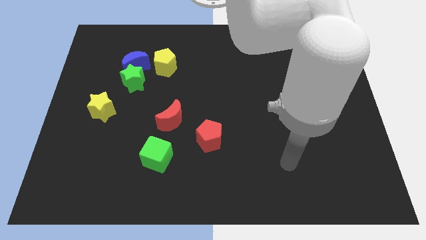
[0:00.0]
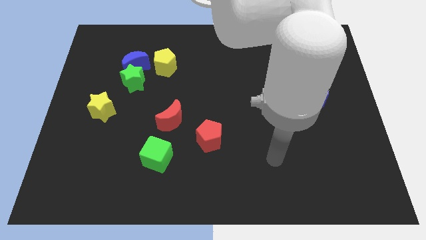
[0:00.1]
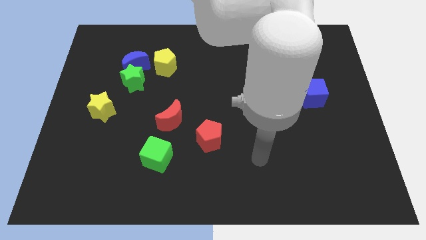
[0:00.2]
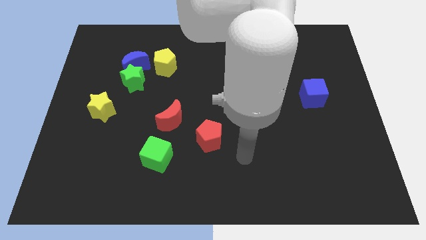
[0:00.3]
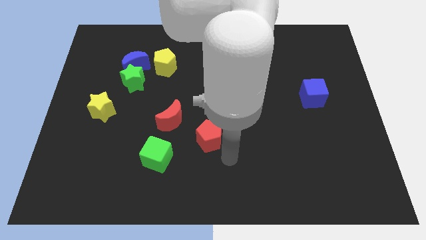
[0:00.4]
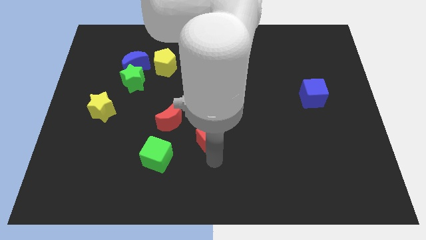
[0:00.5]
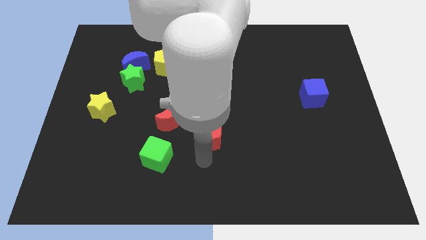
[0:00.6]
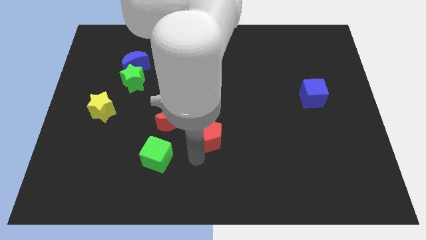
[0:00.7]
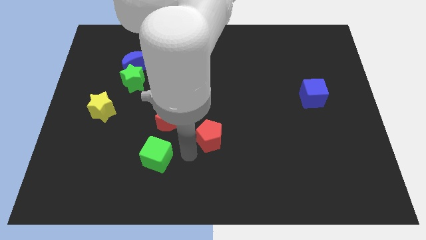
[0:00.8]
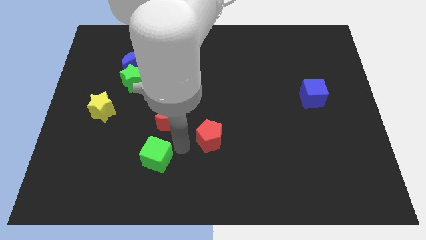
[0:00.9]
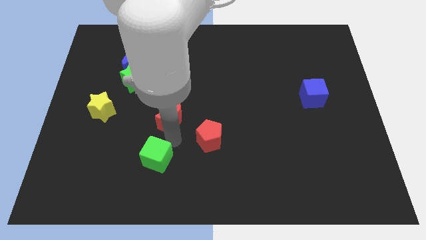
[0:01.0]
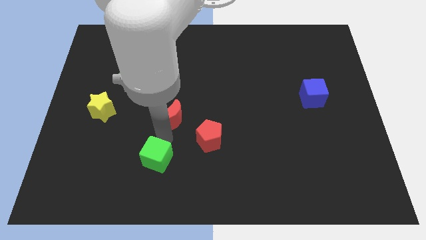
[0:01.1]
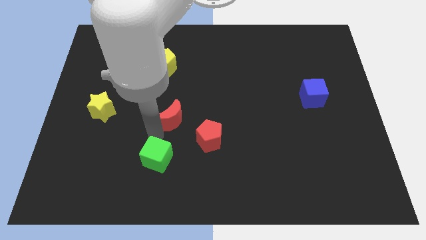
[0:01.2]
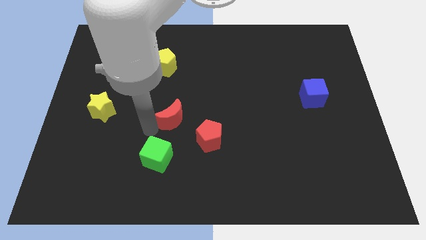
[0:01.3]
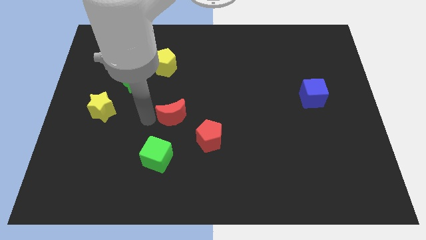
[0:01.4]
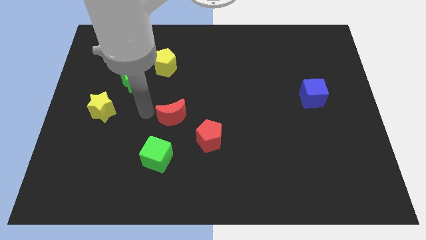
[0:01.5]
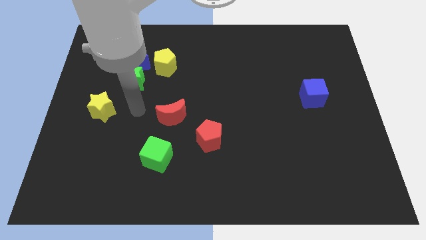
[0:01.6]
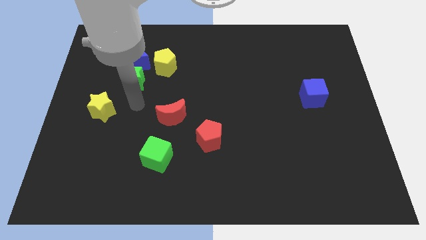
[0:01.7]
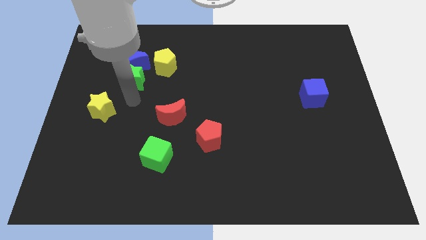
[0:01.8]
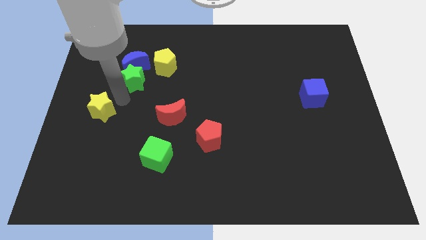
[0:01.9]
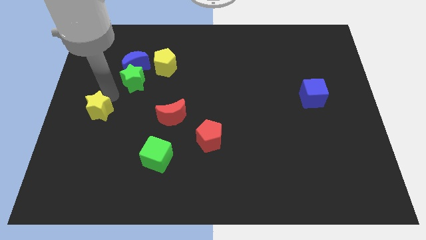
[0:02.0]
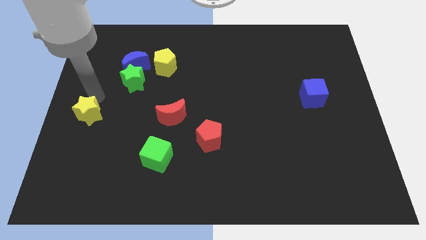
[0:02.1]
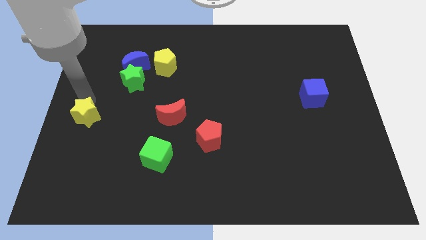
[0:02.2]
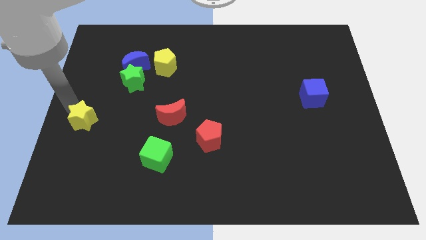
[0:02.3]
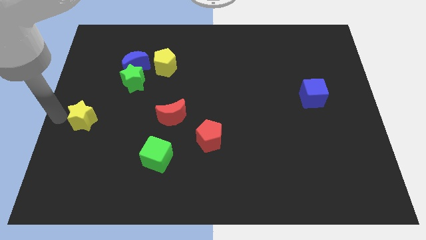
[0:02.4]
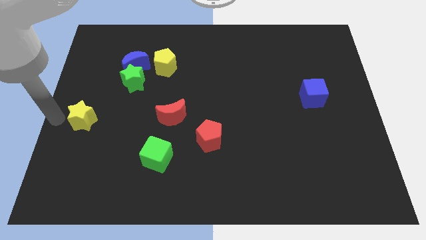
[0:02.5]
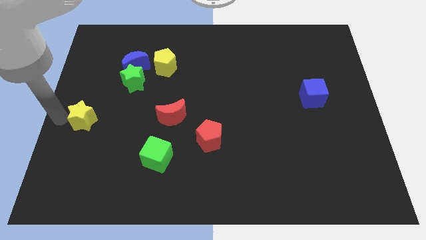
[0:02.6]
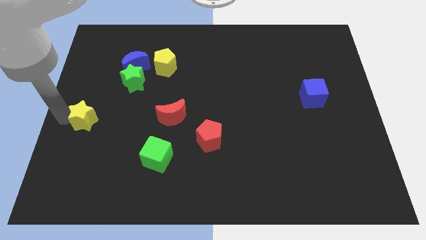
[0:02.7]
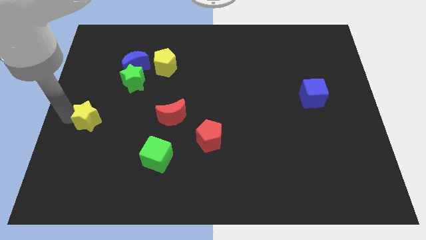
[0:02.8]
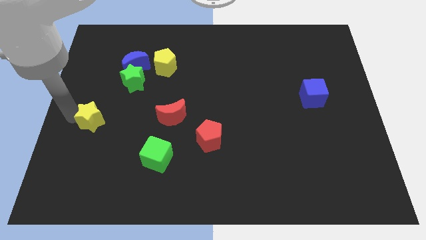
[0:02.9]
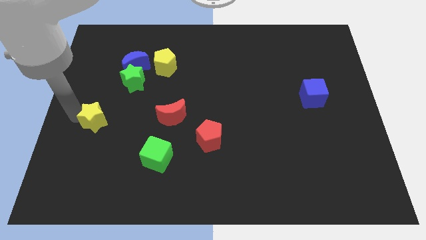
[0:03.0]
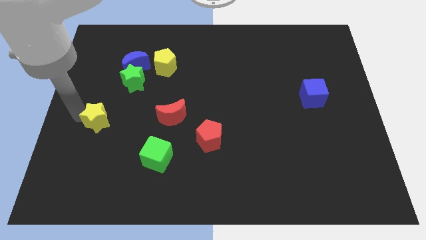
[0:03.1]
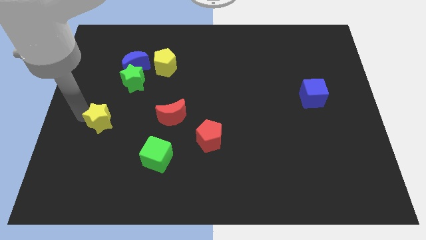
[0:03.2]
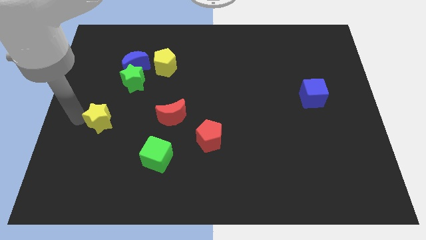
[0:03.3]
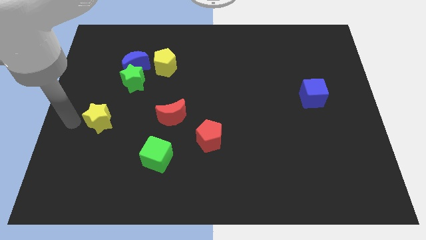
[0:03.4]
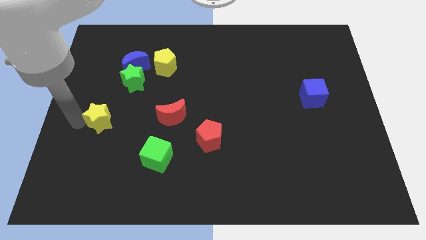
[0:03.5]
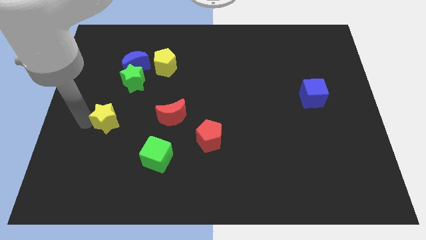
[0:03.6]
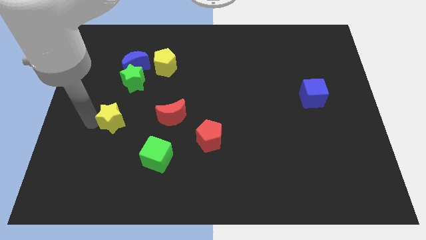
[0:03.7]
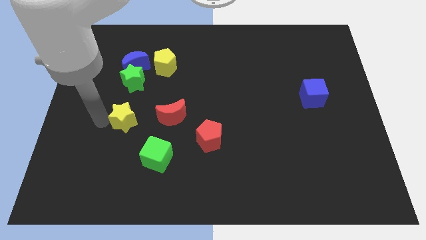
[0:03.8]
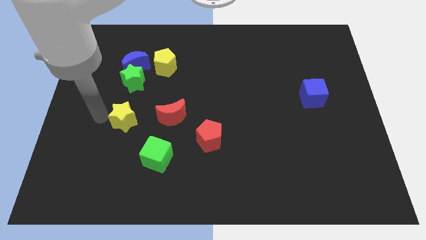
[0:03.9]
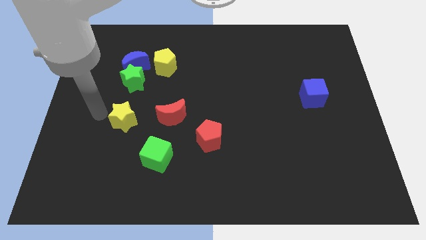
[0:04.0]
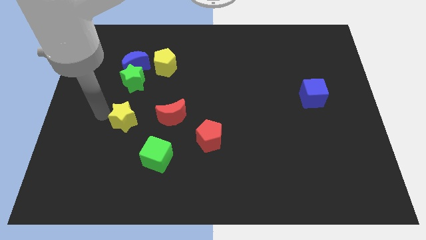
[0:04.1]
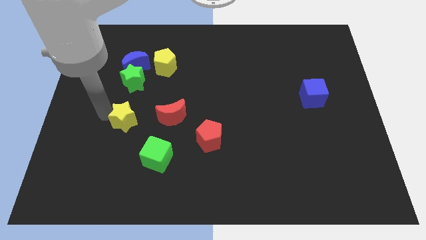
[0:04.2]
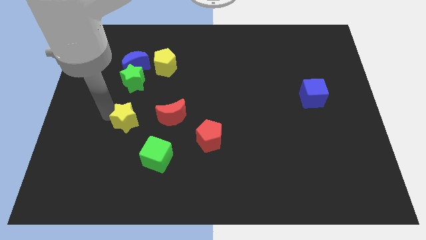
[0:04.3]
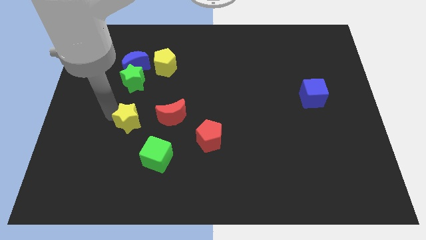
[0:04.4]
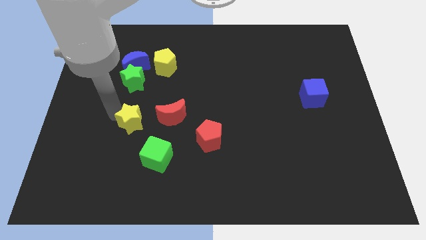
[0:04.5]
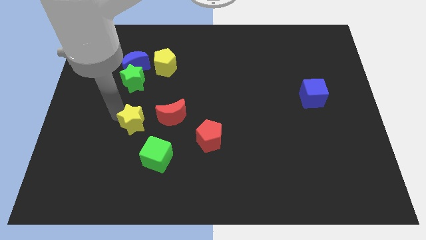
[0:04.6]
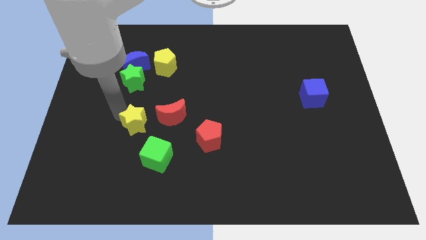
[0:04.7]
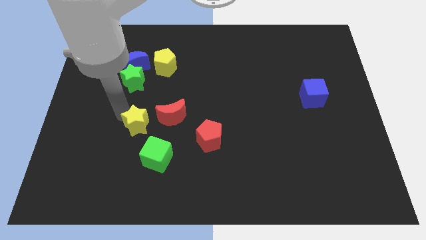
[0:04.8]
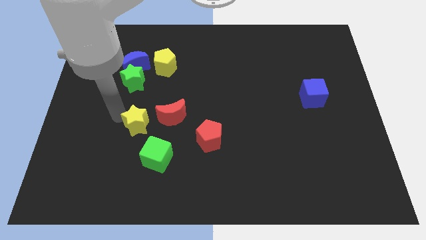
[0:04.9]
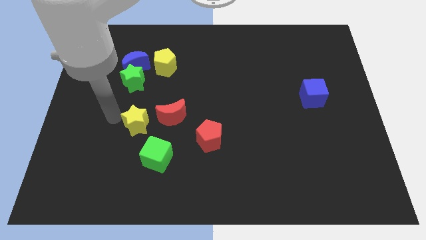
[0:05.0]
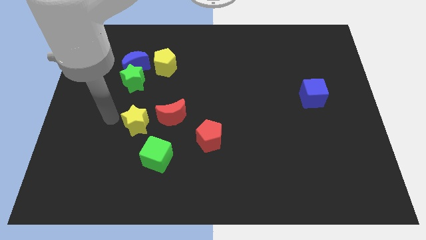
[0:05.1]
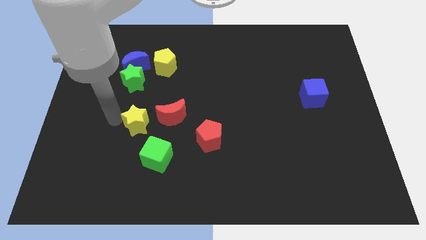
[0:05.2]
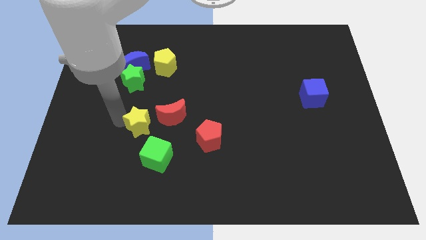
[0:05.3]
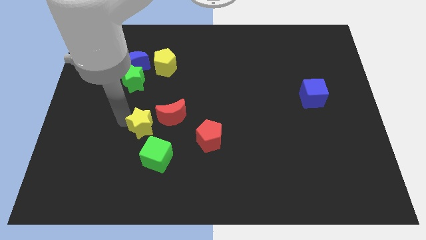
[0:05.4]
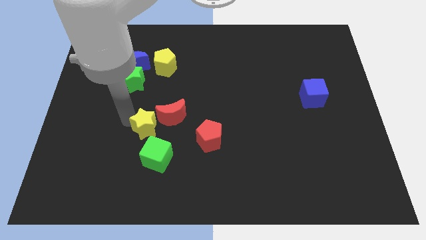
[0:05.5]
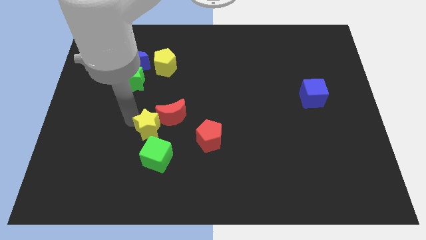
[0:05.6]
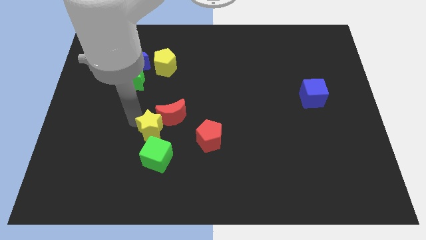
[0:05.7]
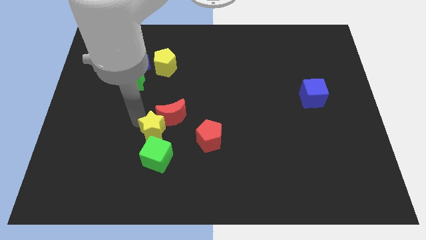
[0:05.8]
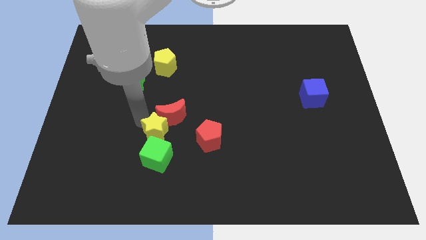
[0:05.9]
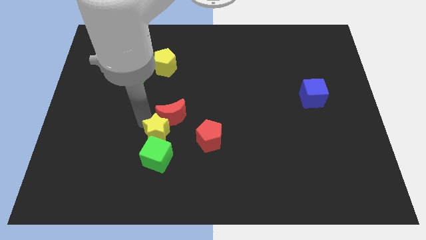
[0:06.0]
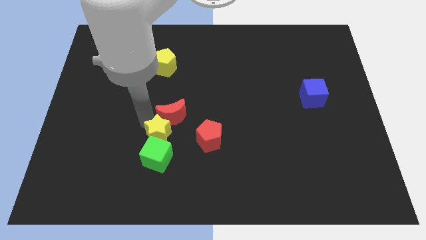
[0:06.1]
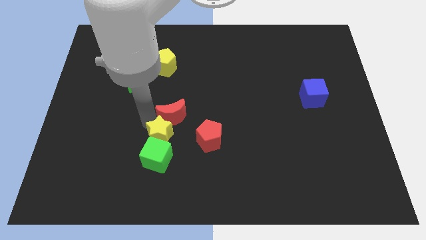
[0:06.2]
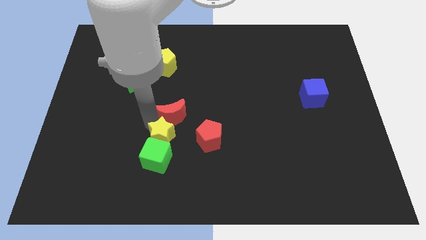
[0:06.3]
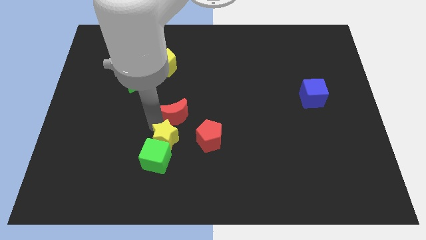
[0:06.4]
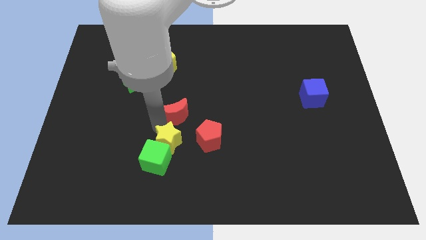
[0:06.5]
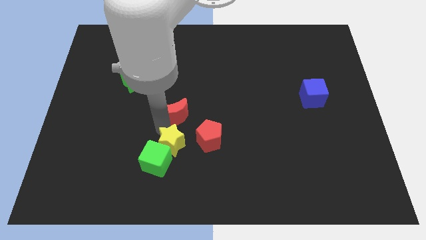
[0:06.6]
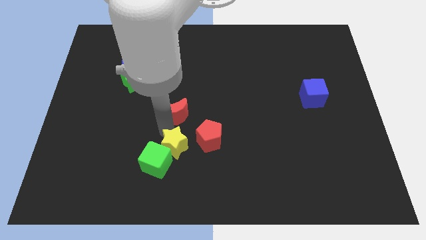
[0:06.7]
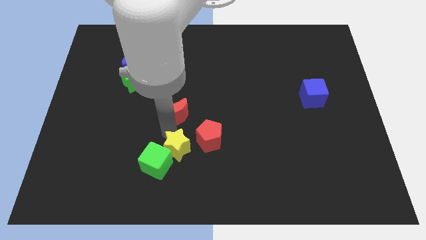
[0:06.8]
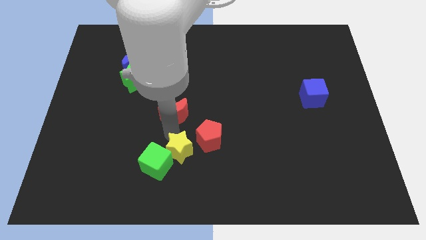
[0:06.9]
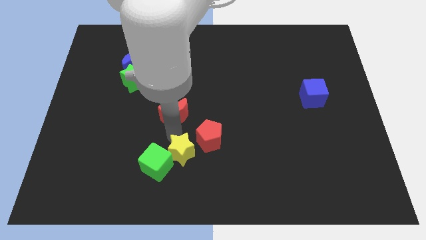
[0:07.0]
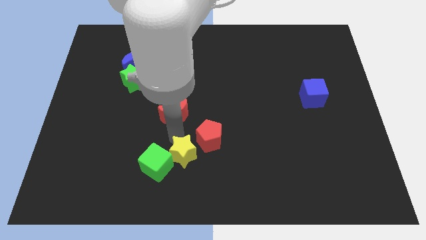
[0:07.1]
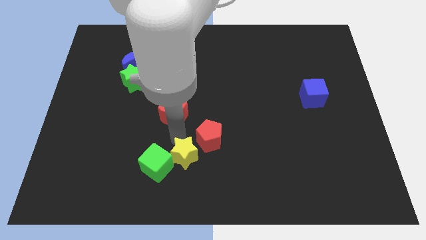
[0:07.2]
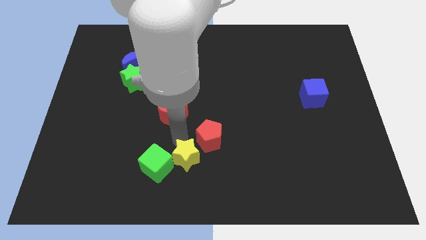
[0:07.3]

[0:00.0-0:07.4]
put the yellow star to the bottom
